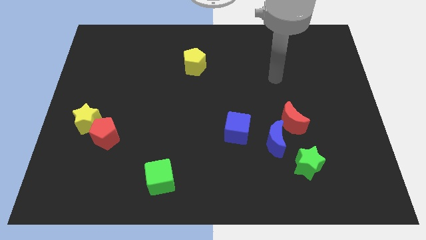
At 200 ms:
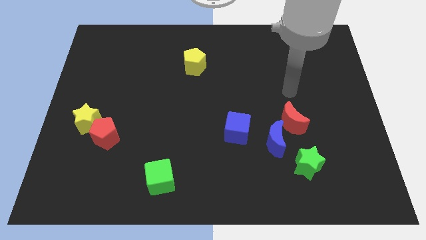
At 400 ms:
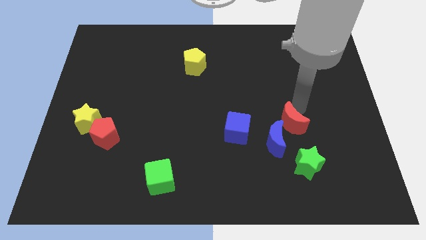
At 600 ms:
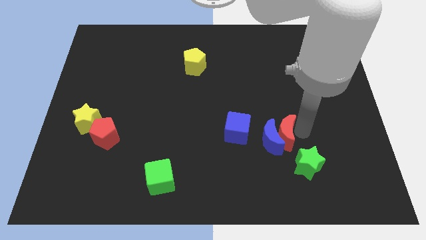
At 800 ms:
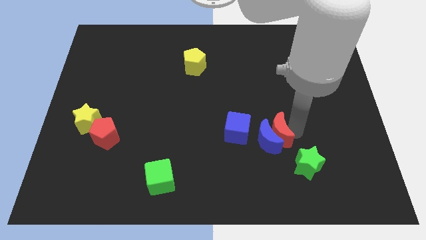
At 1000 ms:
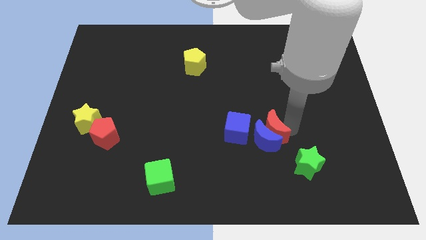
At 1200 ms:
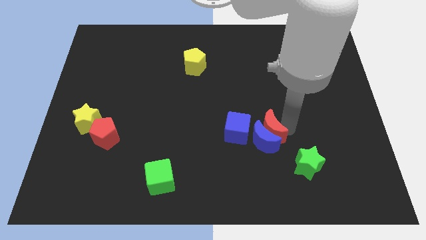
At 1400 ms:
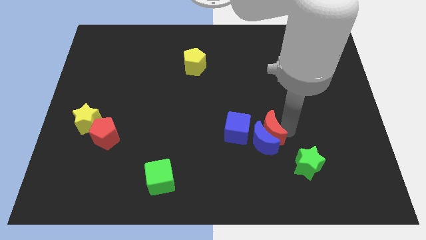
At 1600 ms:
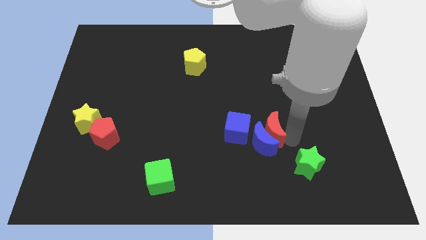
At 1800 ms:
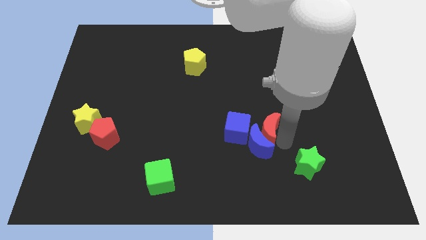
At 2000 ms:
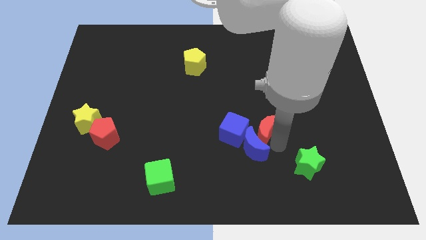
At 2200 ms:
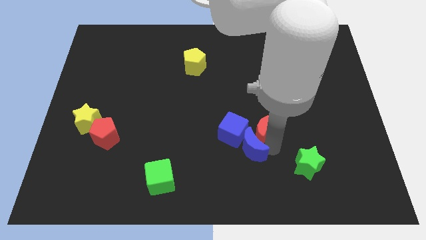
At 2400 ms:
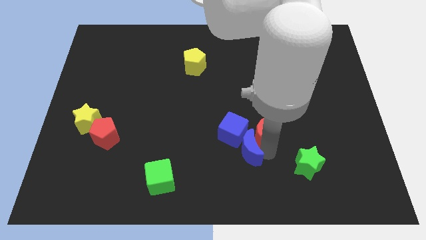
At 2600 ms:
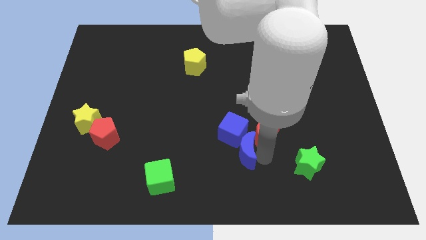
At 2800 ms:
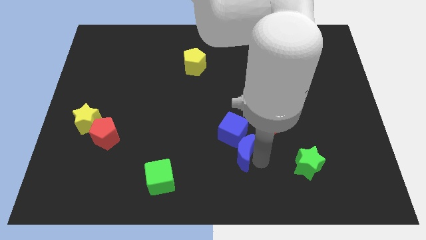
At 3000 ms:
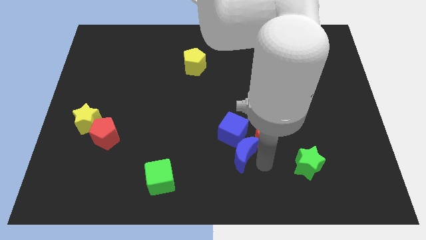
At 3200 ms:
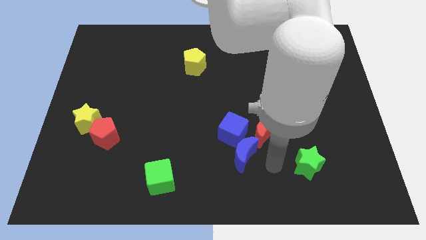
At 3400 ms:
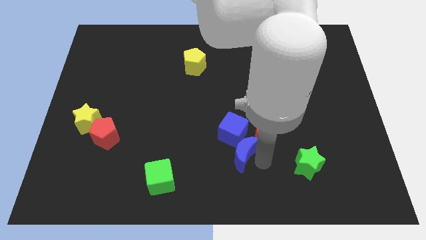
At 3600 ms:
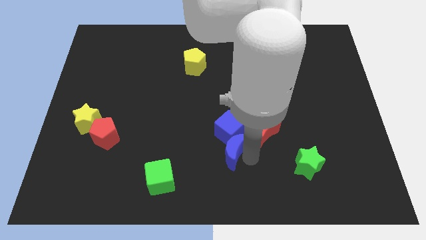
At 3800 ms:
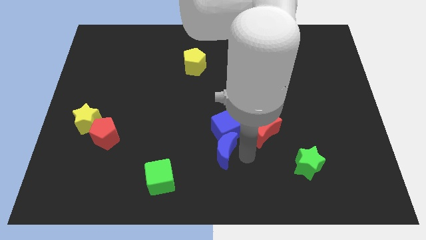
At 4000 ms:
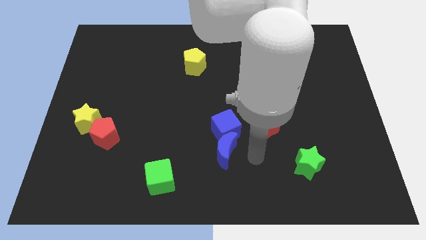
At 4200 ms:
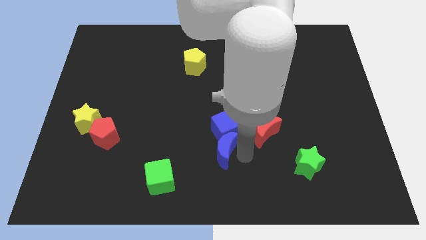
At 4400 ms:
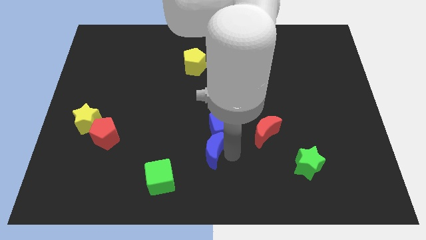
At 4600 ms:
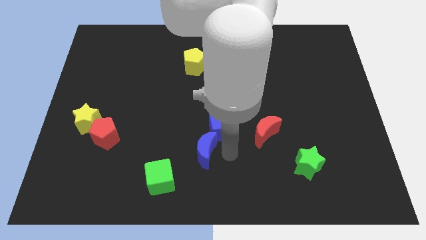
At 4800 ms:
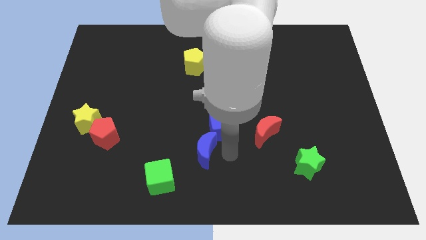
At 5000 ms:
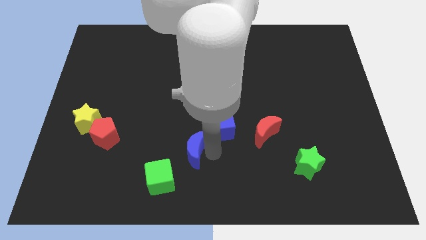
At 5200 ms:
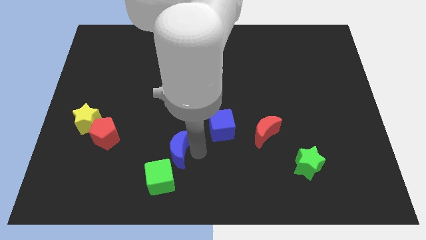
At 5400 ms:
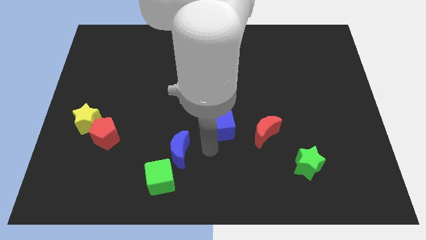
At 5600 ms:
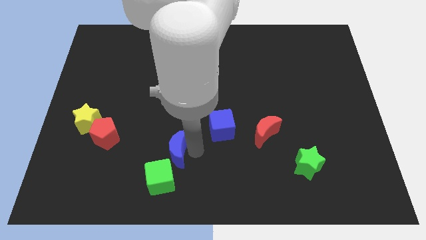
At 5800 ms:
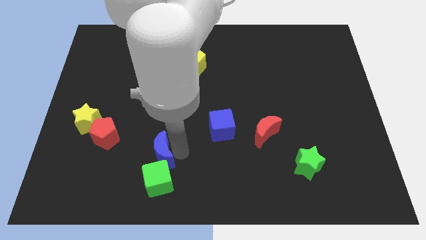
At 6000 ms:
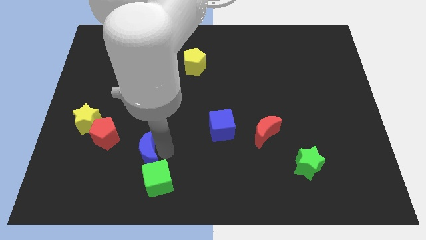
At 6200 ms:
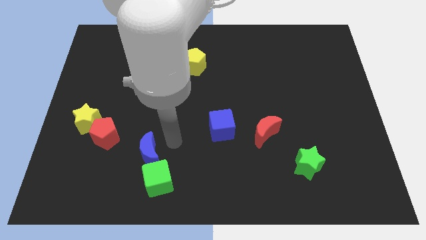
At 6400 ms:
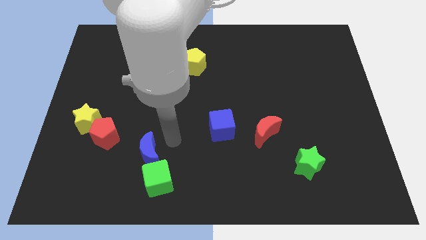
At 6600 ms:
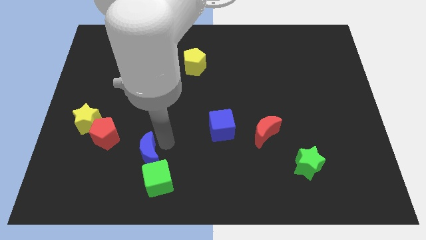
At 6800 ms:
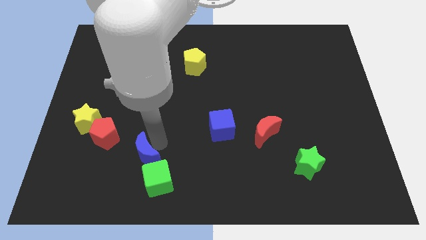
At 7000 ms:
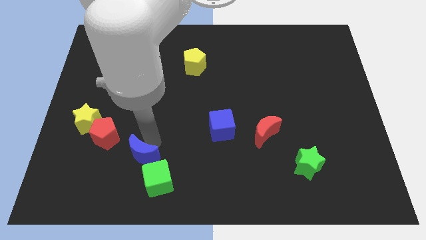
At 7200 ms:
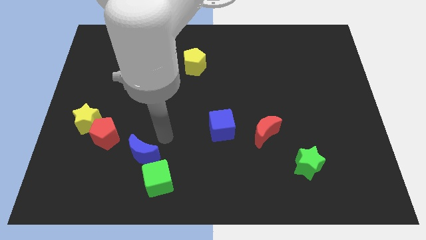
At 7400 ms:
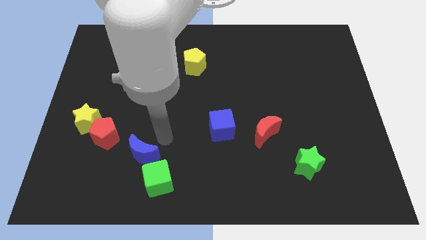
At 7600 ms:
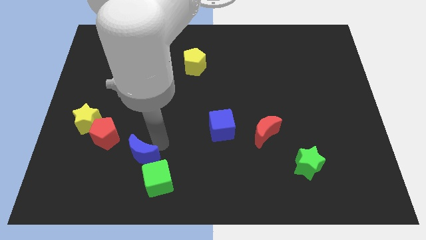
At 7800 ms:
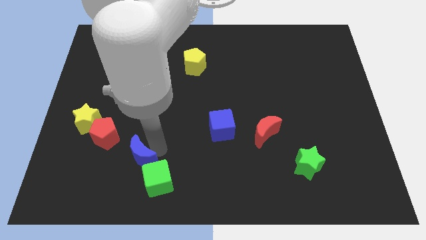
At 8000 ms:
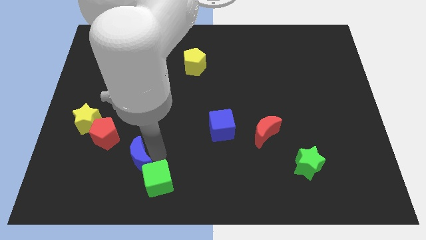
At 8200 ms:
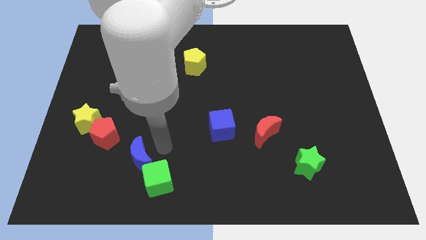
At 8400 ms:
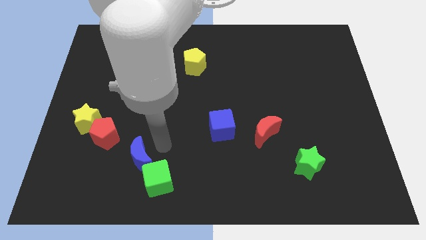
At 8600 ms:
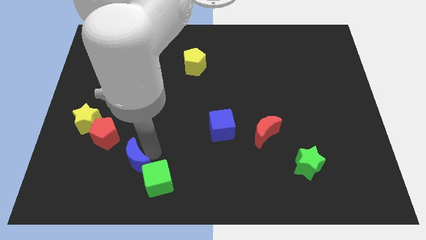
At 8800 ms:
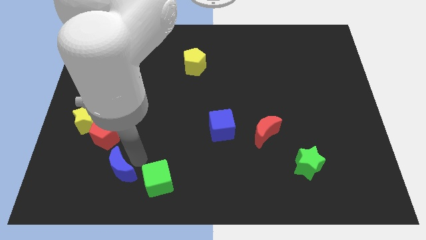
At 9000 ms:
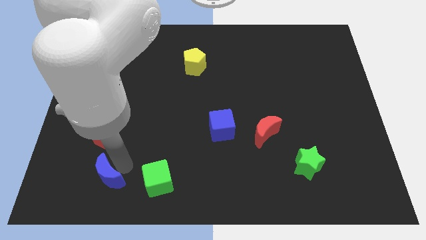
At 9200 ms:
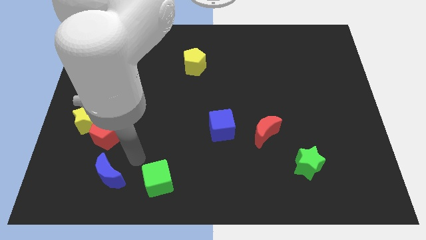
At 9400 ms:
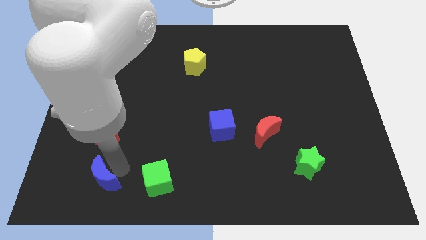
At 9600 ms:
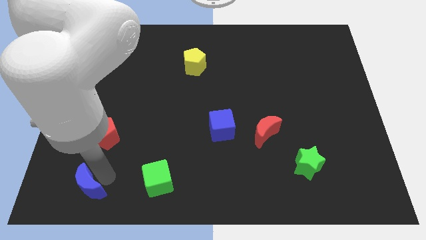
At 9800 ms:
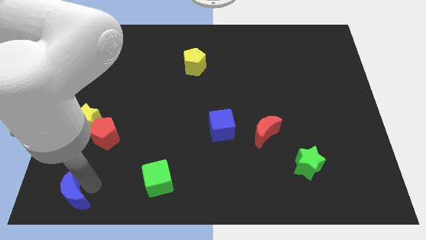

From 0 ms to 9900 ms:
move the blue moon to the bottom left corner

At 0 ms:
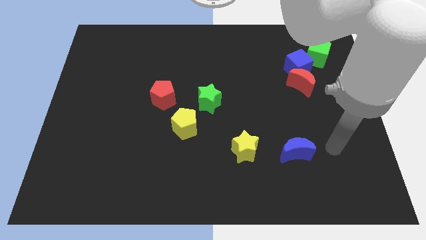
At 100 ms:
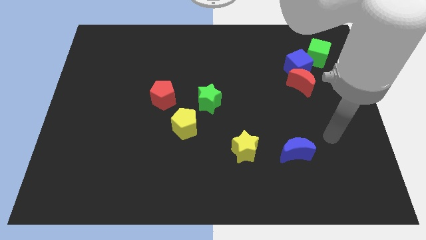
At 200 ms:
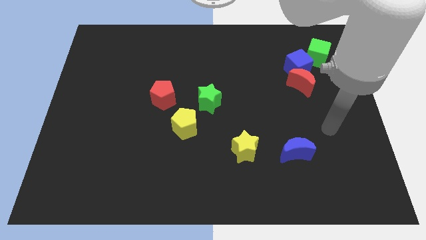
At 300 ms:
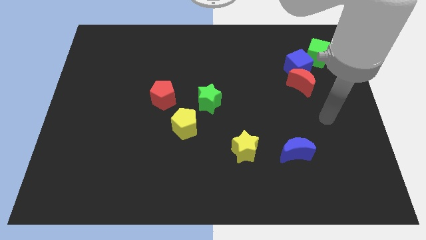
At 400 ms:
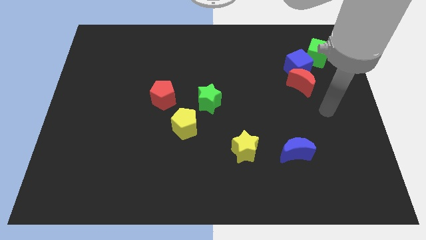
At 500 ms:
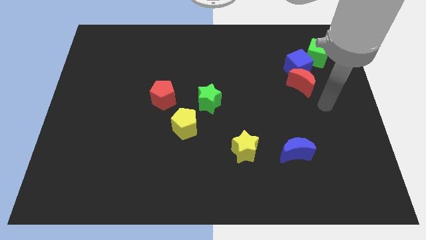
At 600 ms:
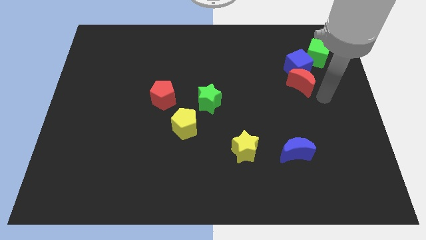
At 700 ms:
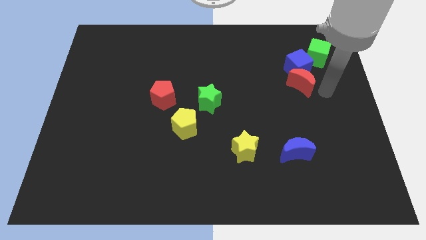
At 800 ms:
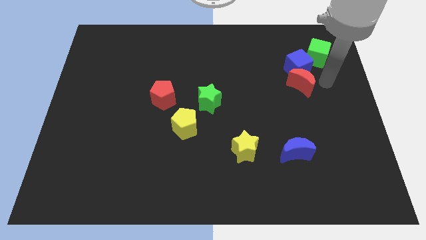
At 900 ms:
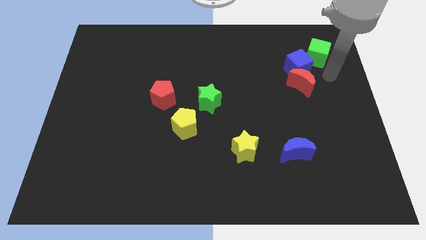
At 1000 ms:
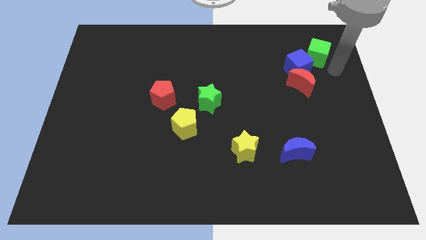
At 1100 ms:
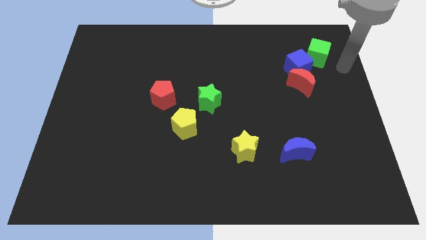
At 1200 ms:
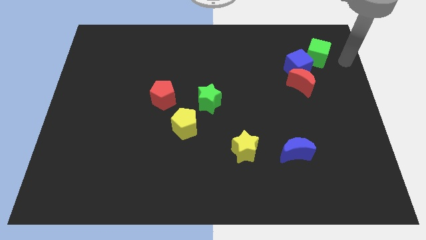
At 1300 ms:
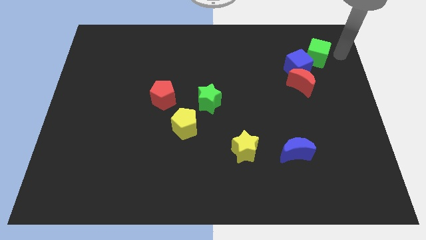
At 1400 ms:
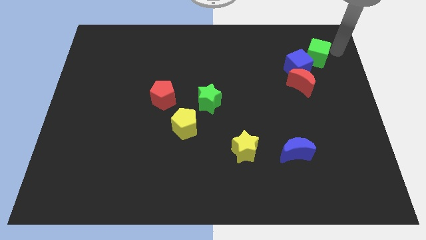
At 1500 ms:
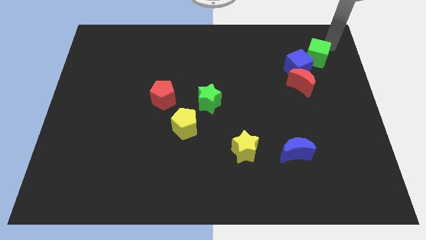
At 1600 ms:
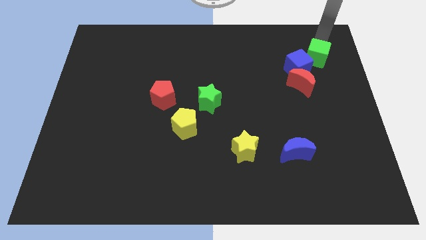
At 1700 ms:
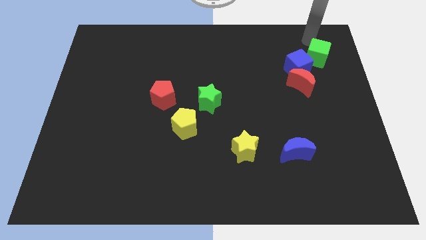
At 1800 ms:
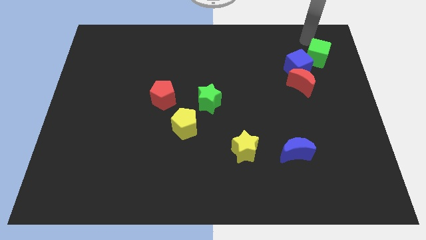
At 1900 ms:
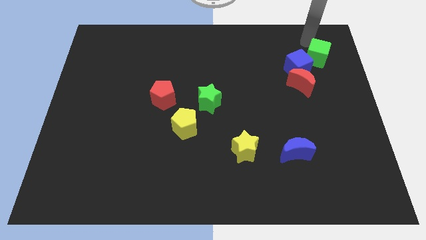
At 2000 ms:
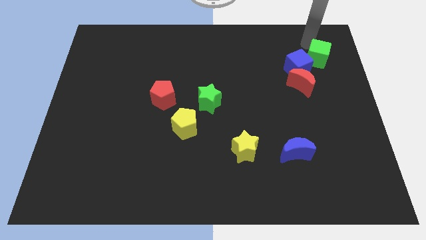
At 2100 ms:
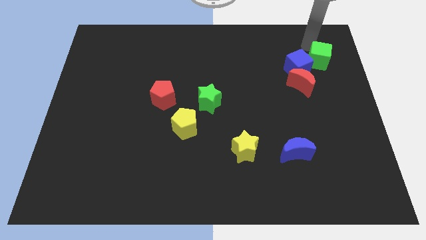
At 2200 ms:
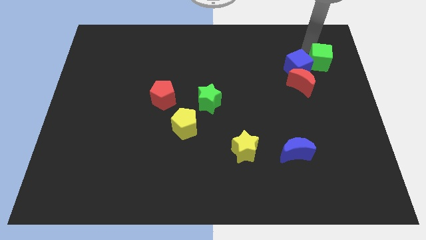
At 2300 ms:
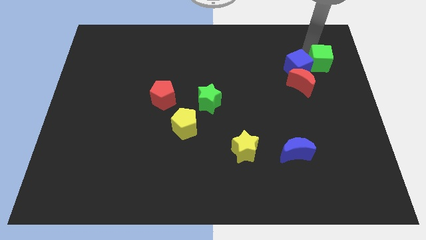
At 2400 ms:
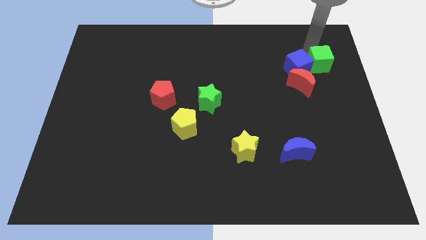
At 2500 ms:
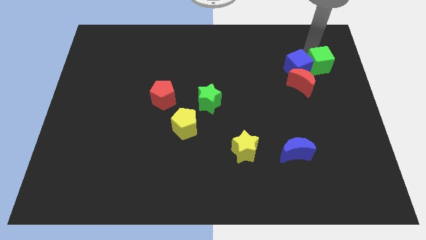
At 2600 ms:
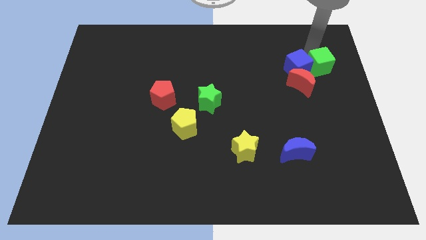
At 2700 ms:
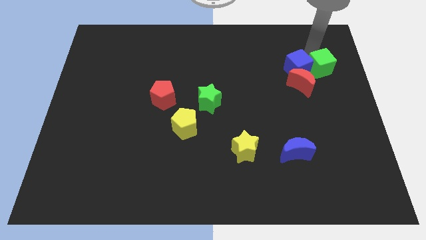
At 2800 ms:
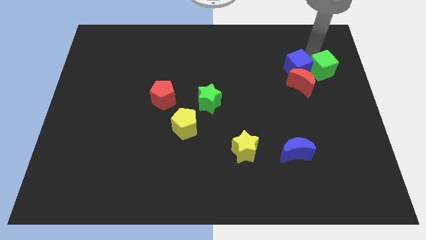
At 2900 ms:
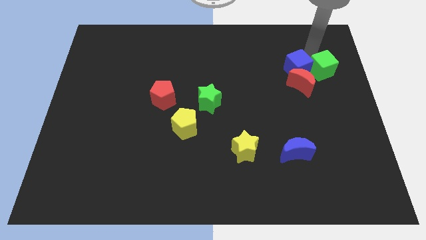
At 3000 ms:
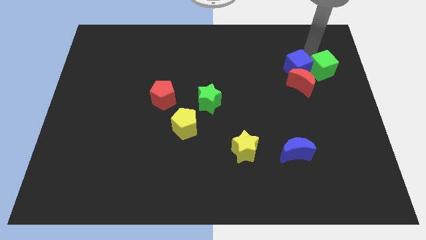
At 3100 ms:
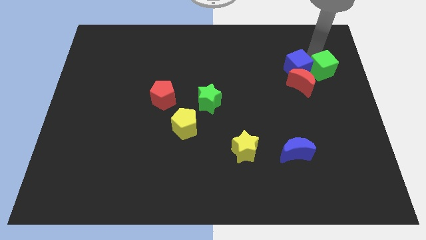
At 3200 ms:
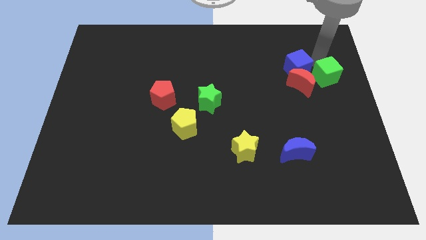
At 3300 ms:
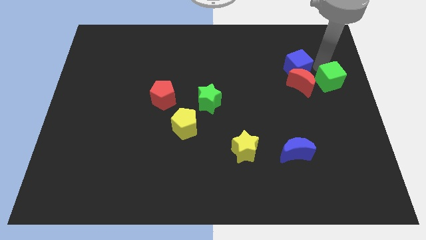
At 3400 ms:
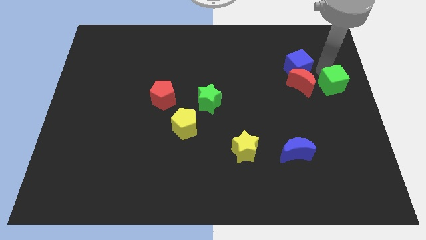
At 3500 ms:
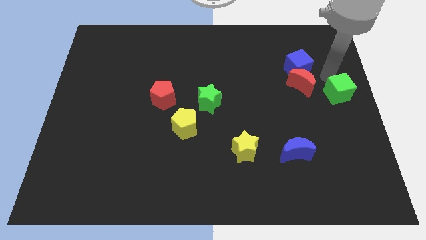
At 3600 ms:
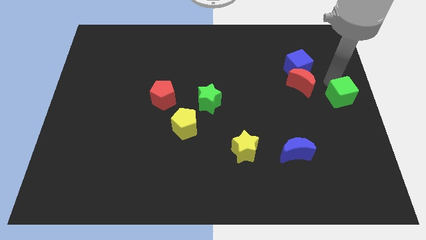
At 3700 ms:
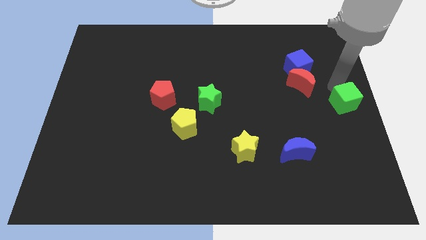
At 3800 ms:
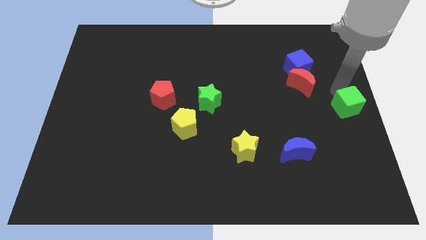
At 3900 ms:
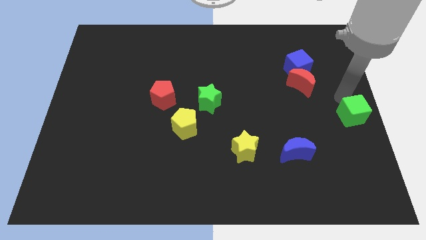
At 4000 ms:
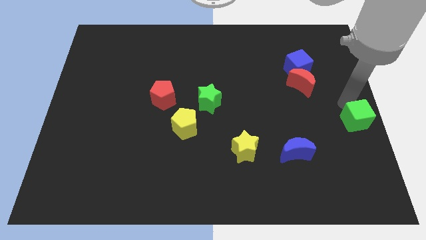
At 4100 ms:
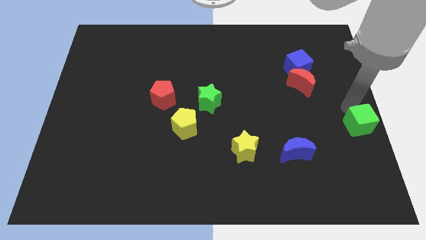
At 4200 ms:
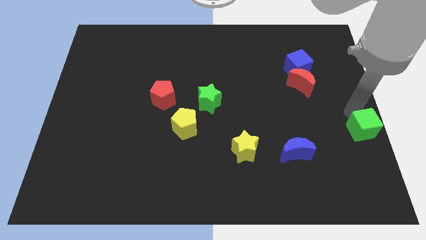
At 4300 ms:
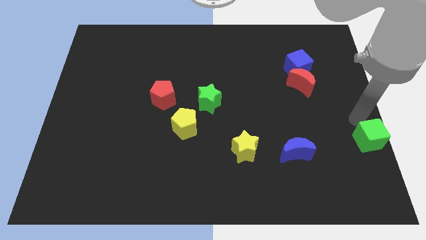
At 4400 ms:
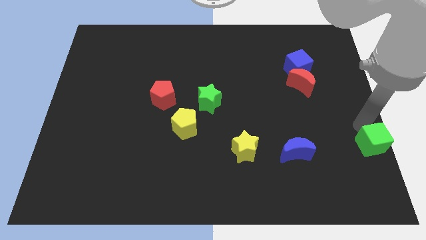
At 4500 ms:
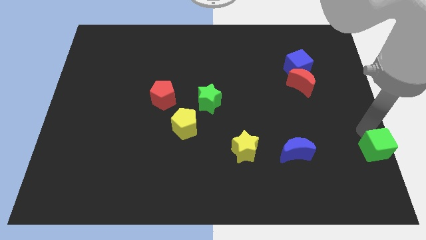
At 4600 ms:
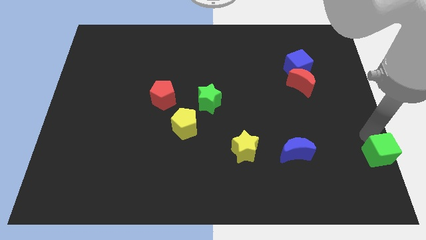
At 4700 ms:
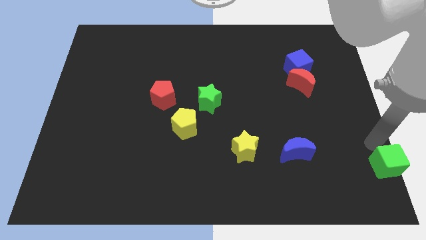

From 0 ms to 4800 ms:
push the green cube to the bottom right of the board
